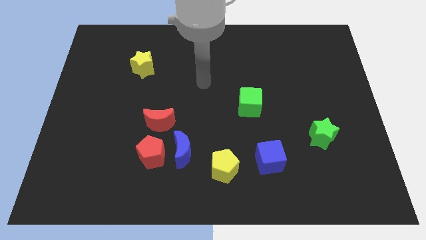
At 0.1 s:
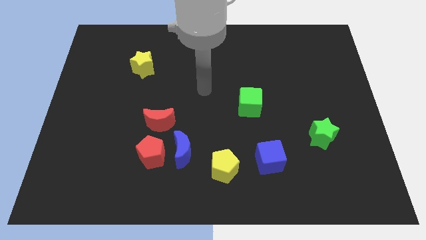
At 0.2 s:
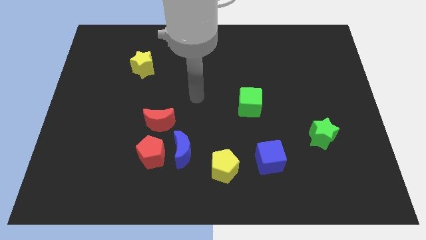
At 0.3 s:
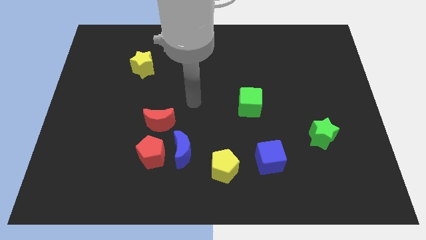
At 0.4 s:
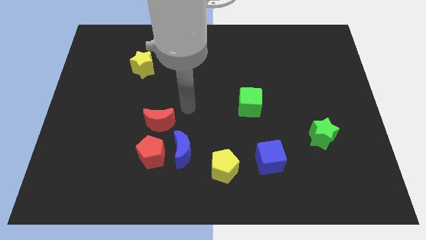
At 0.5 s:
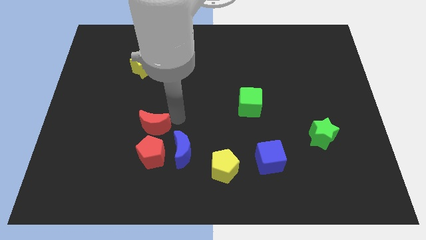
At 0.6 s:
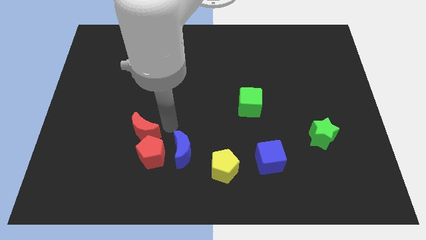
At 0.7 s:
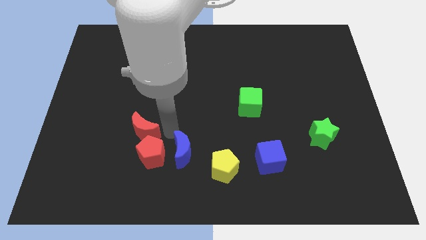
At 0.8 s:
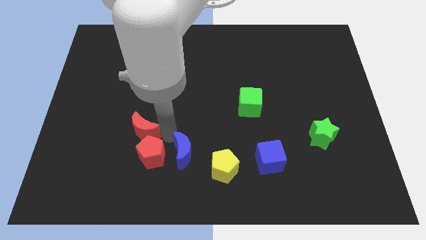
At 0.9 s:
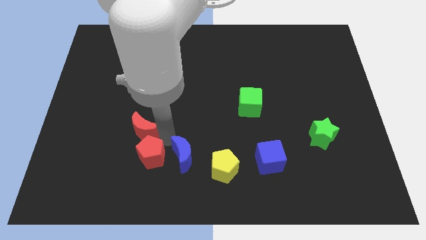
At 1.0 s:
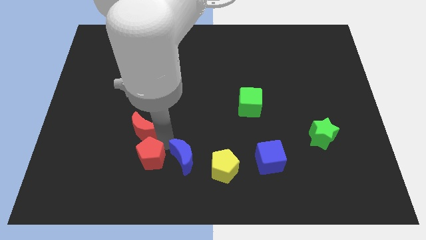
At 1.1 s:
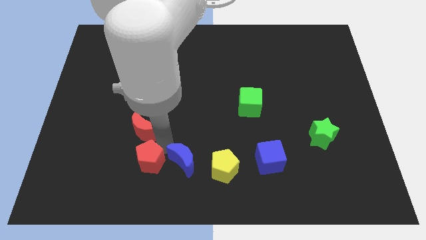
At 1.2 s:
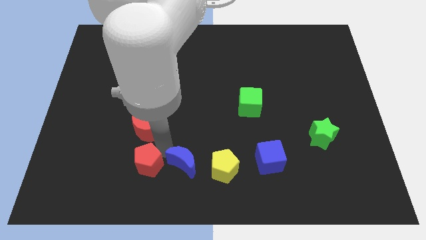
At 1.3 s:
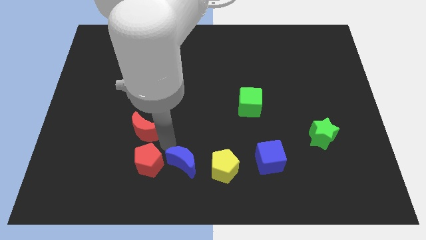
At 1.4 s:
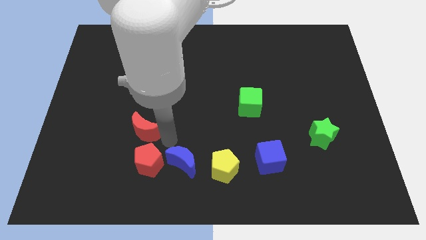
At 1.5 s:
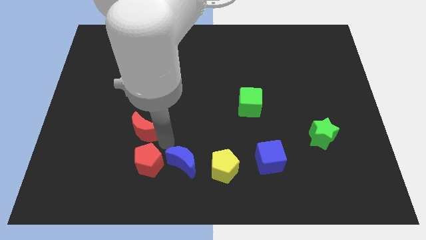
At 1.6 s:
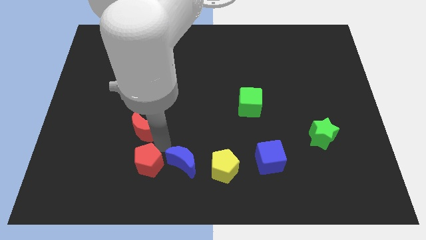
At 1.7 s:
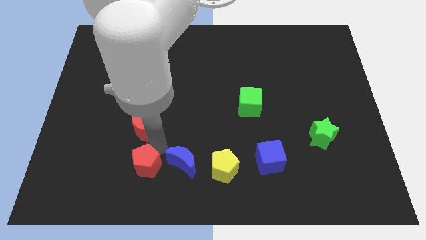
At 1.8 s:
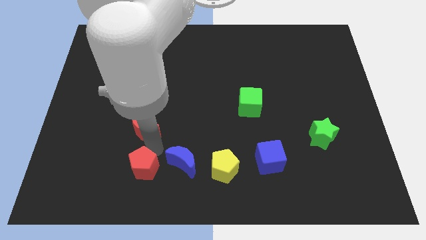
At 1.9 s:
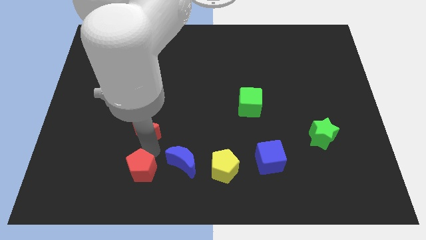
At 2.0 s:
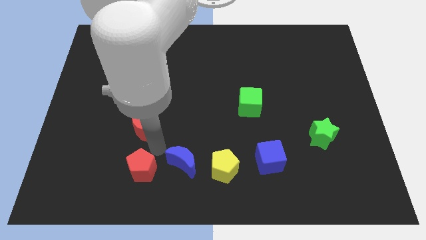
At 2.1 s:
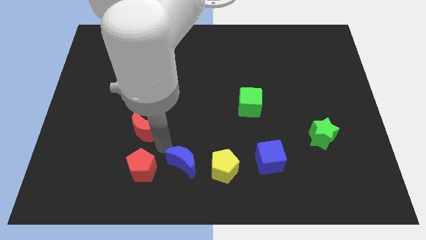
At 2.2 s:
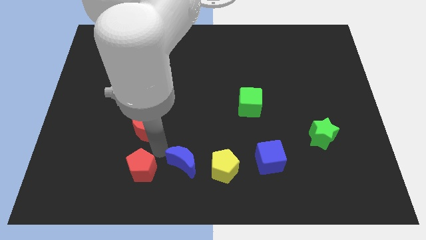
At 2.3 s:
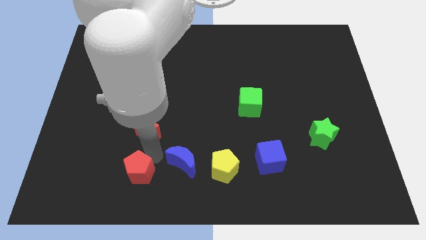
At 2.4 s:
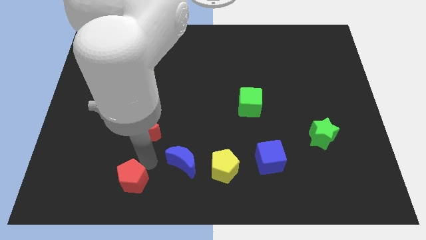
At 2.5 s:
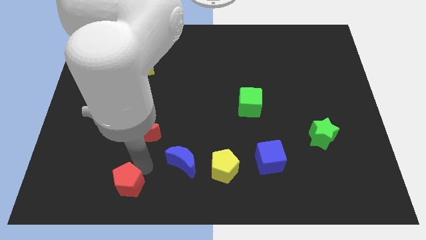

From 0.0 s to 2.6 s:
move the red pentagon away from the blue moon and red moon

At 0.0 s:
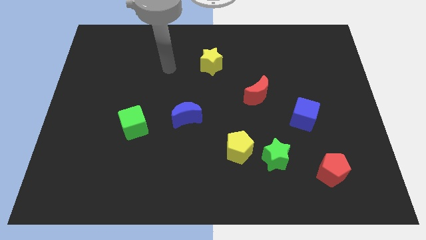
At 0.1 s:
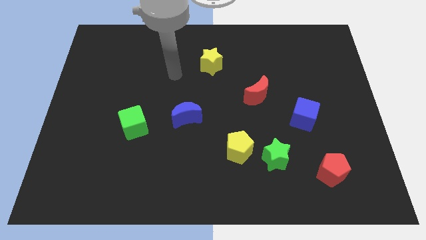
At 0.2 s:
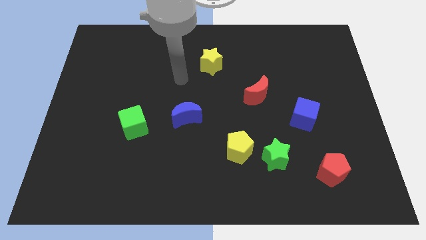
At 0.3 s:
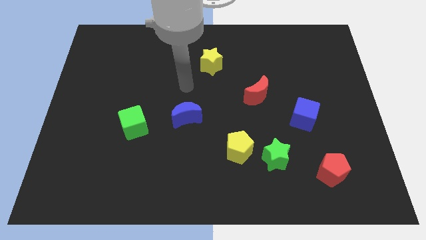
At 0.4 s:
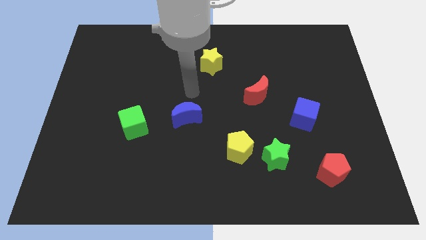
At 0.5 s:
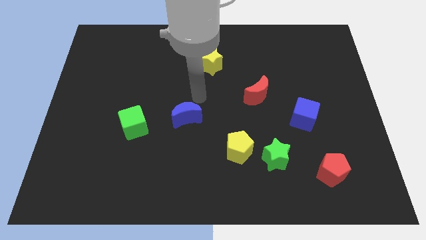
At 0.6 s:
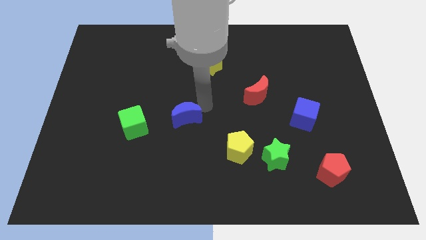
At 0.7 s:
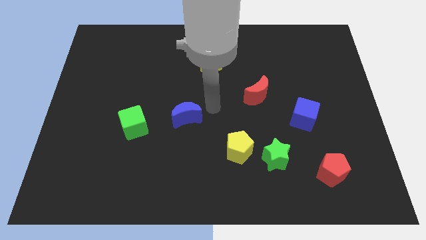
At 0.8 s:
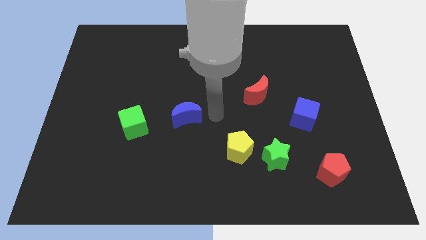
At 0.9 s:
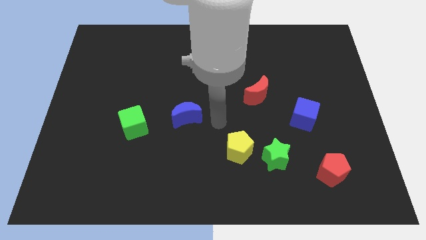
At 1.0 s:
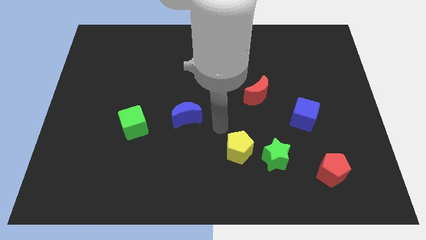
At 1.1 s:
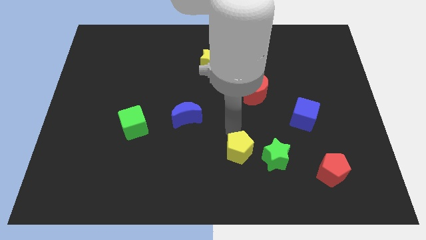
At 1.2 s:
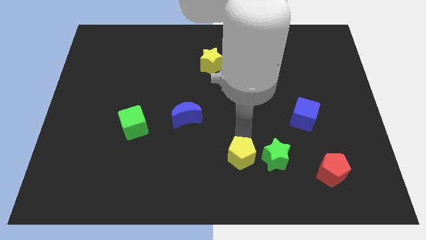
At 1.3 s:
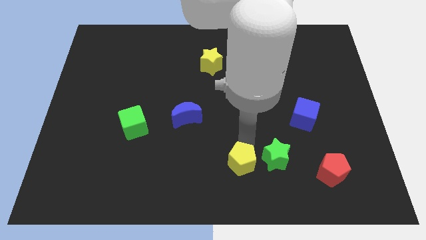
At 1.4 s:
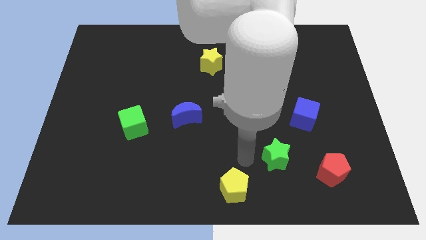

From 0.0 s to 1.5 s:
pull the green star apart from the yellow pentagon

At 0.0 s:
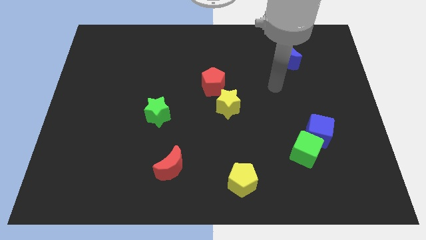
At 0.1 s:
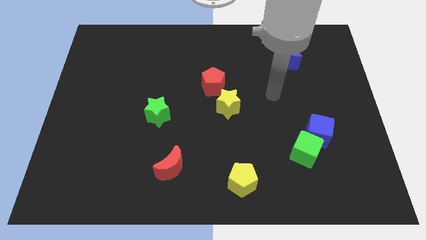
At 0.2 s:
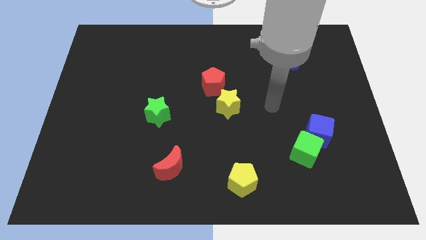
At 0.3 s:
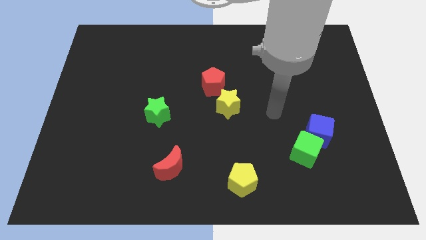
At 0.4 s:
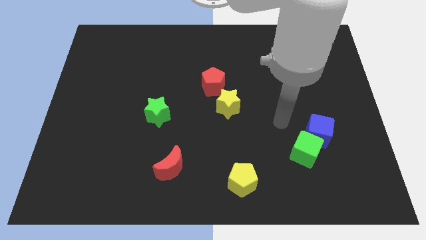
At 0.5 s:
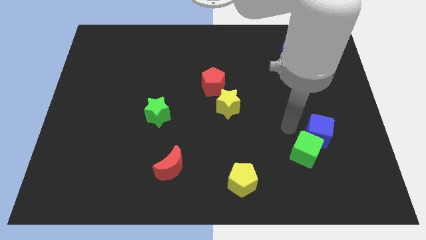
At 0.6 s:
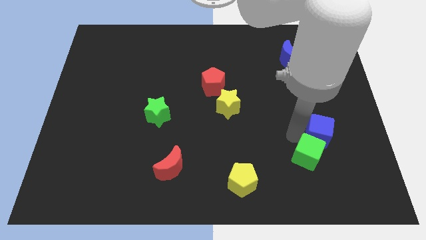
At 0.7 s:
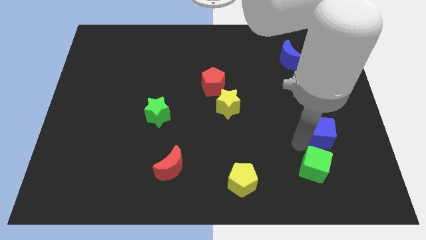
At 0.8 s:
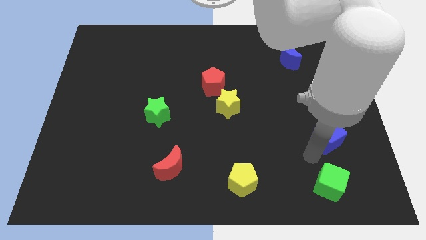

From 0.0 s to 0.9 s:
separate the blue cube from the green cube

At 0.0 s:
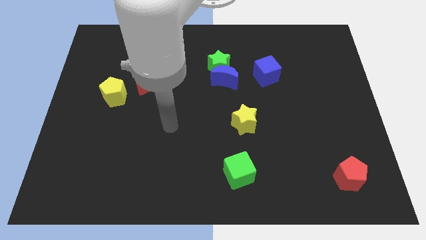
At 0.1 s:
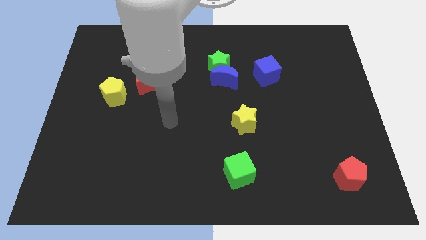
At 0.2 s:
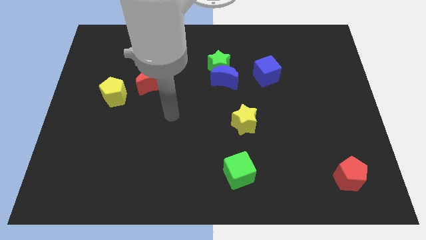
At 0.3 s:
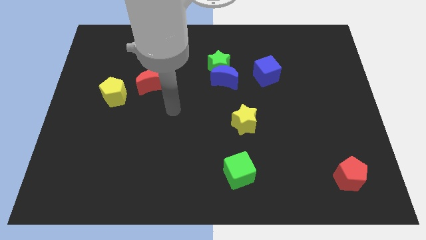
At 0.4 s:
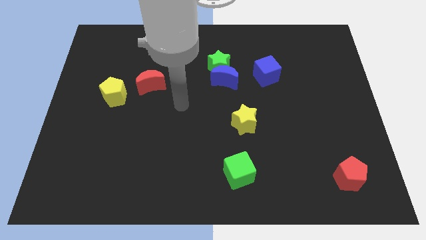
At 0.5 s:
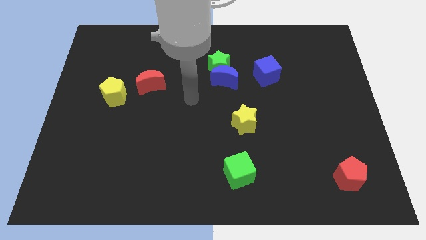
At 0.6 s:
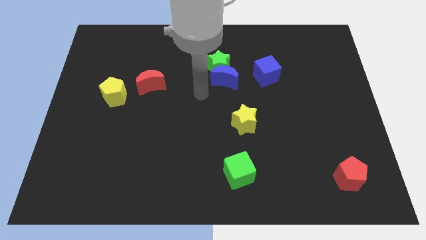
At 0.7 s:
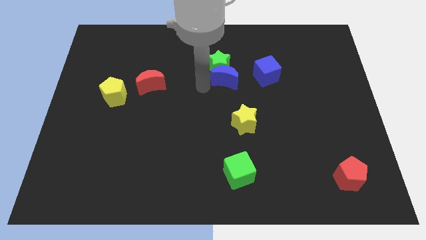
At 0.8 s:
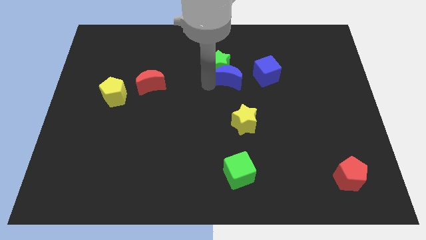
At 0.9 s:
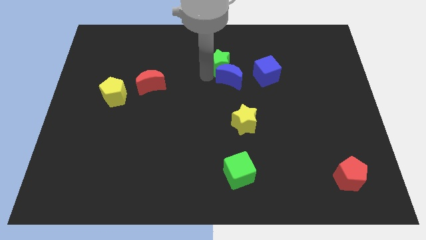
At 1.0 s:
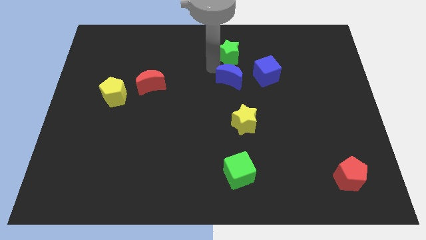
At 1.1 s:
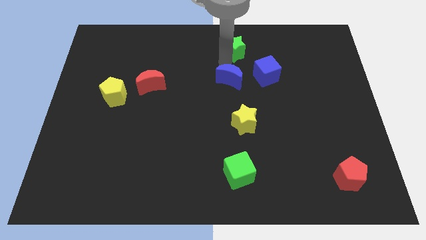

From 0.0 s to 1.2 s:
pull the blue moon apart from the green star

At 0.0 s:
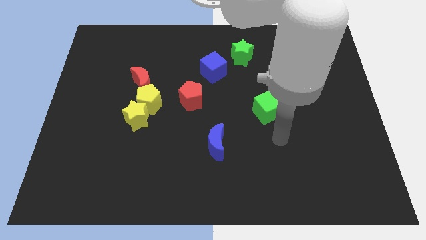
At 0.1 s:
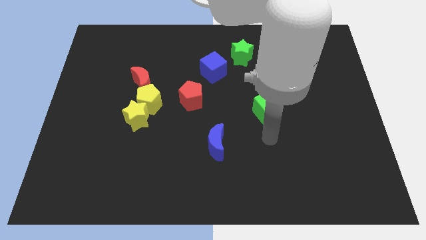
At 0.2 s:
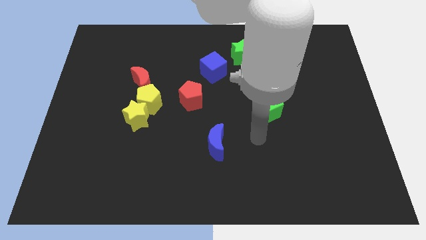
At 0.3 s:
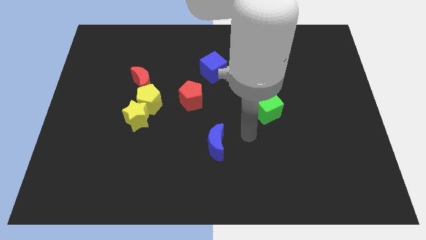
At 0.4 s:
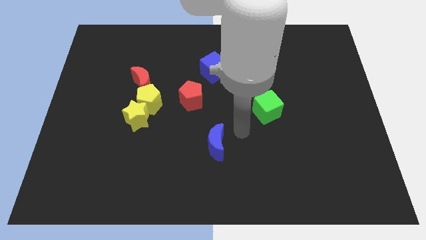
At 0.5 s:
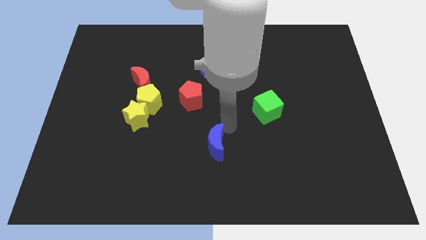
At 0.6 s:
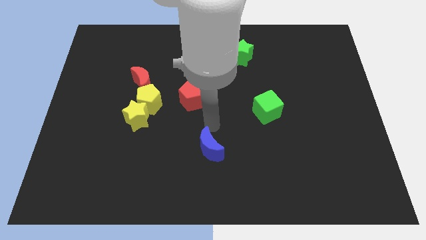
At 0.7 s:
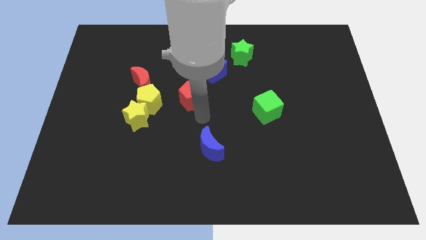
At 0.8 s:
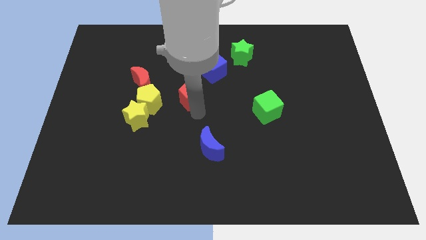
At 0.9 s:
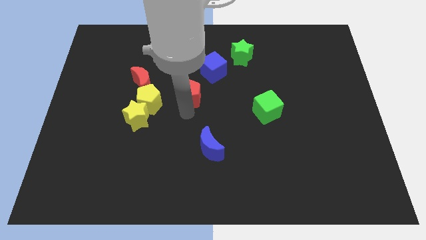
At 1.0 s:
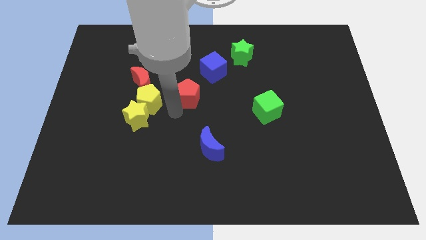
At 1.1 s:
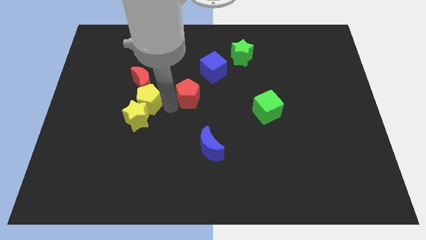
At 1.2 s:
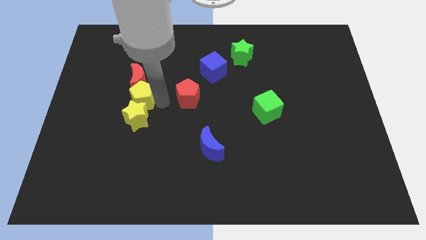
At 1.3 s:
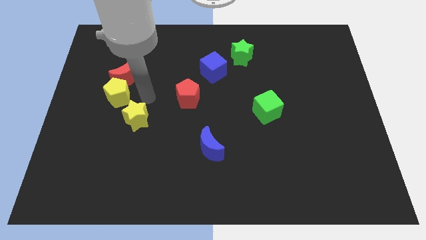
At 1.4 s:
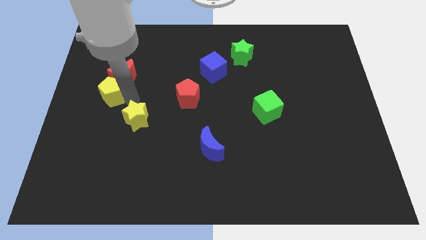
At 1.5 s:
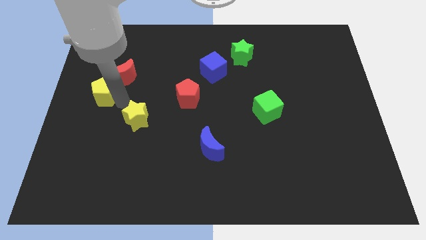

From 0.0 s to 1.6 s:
pull the yellow star apart from the yellow pentagon

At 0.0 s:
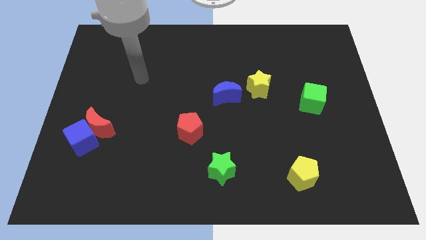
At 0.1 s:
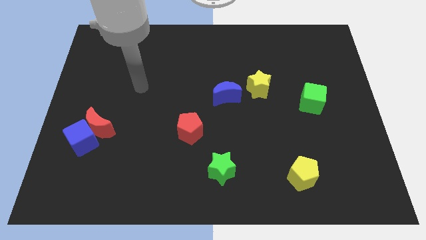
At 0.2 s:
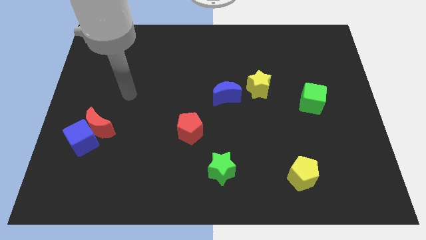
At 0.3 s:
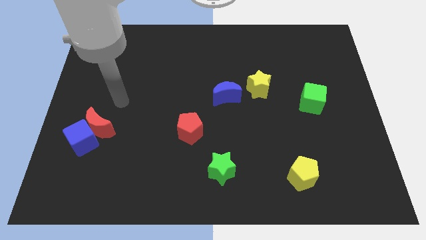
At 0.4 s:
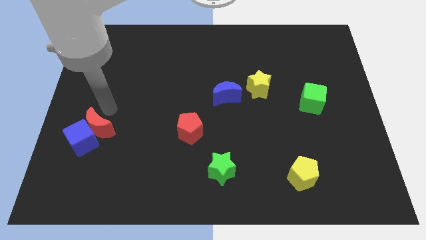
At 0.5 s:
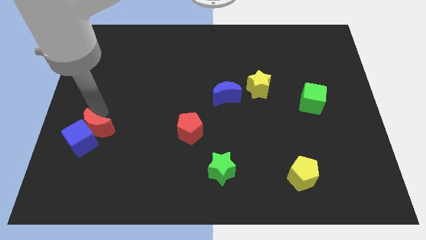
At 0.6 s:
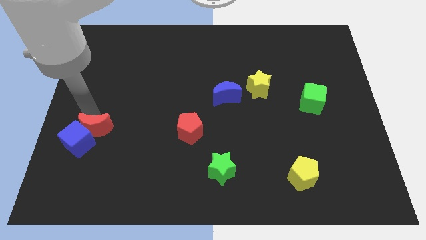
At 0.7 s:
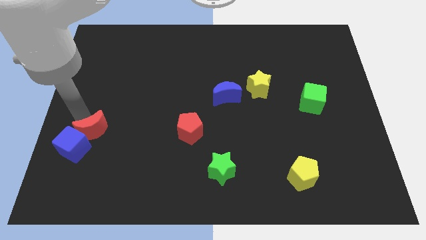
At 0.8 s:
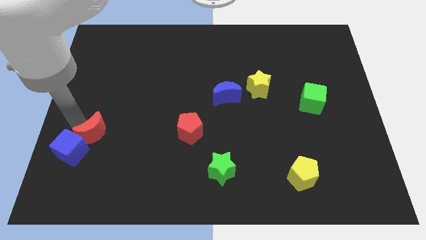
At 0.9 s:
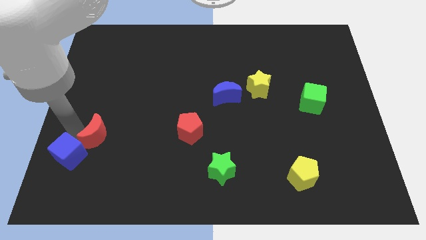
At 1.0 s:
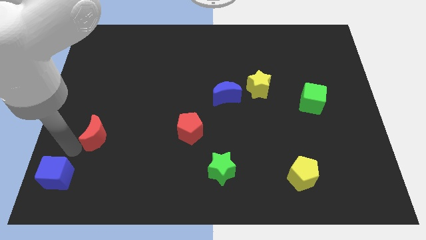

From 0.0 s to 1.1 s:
separate the red moon from the blue cube

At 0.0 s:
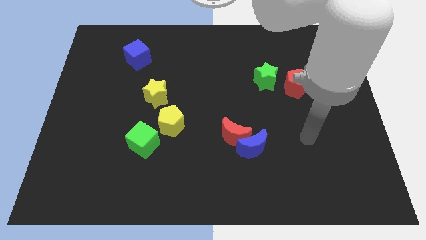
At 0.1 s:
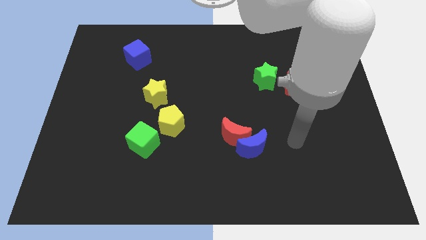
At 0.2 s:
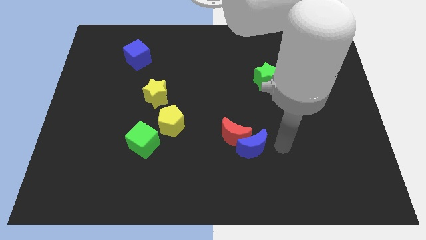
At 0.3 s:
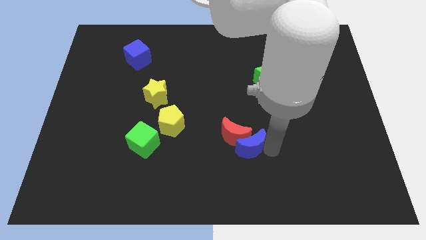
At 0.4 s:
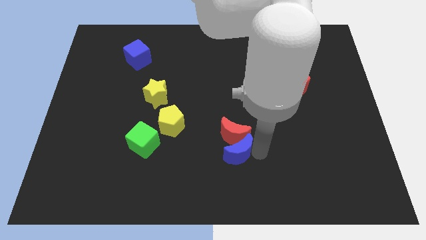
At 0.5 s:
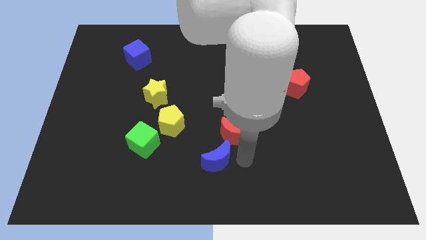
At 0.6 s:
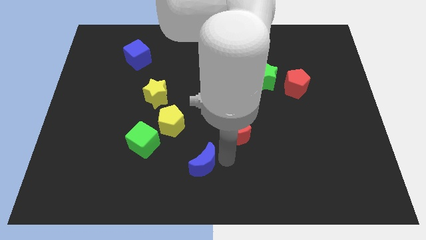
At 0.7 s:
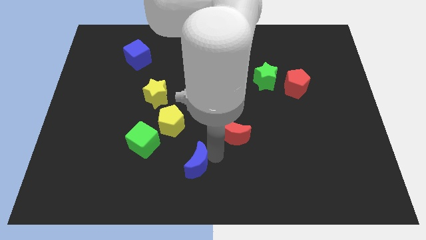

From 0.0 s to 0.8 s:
separate the red moon from the blue moon
